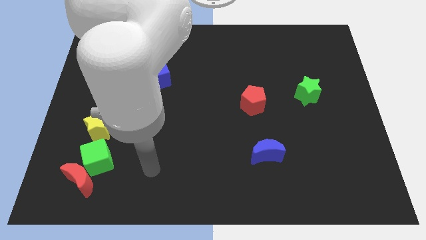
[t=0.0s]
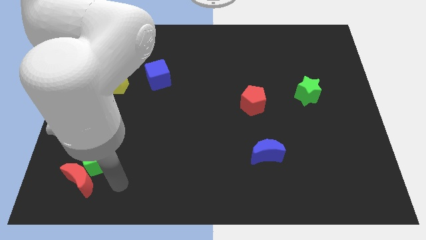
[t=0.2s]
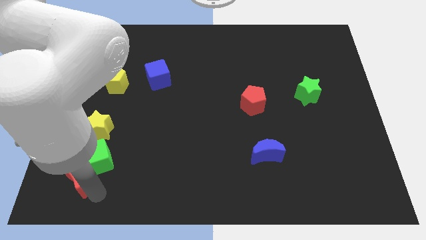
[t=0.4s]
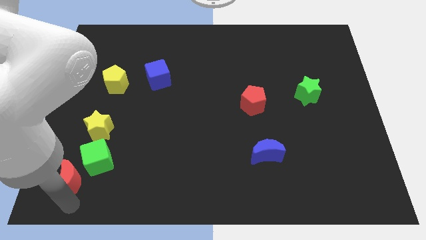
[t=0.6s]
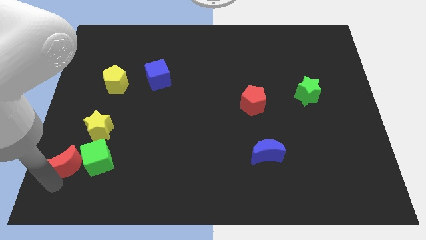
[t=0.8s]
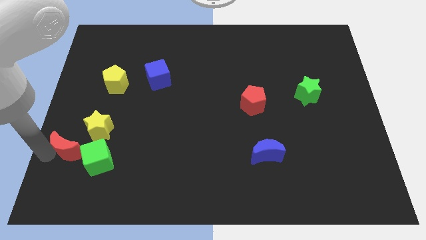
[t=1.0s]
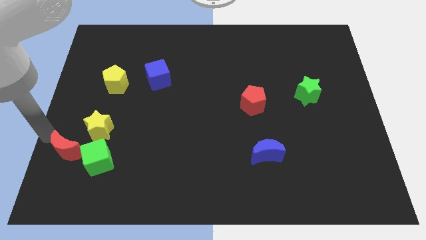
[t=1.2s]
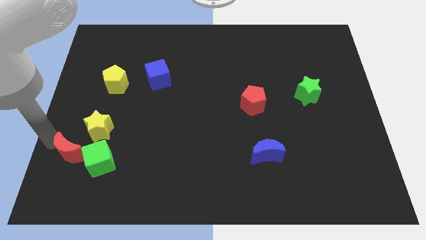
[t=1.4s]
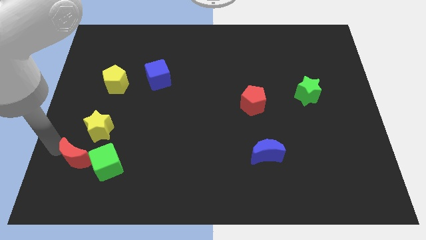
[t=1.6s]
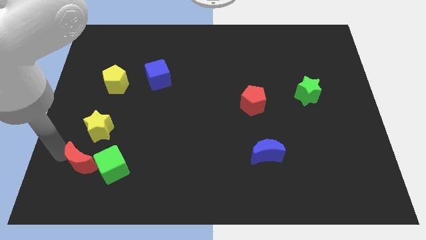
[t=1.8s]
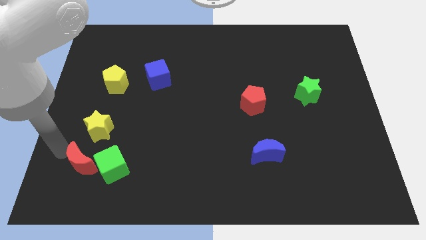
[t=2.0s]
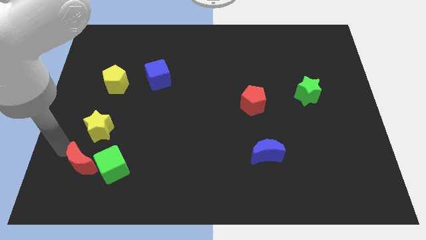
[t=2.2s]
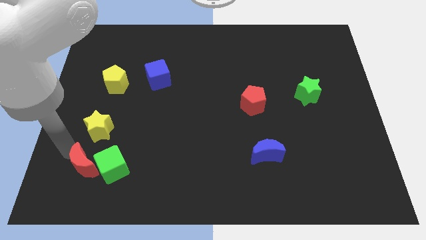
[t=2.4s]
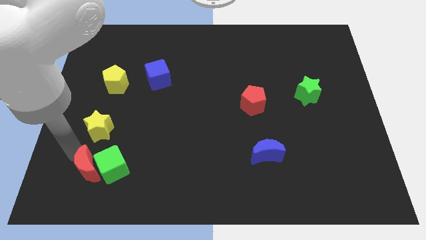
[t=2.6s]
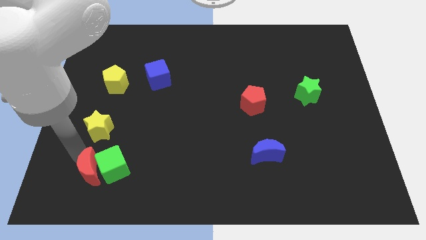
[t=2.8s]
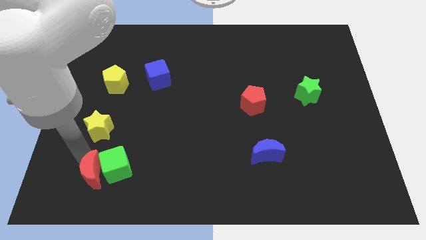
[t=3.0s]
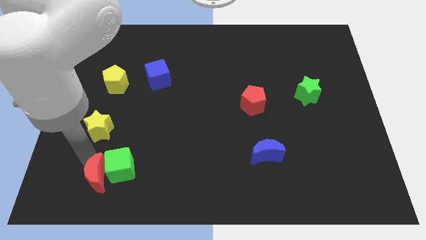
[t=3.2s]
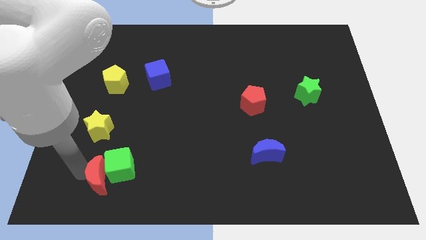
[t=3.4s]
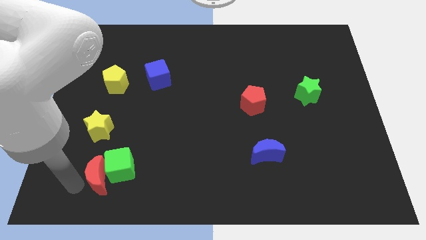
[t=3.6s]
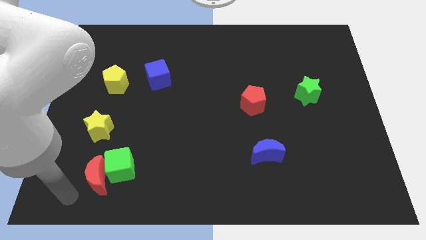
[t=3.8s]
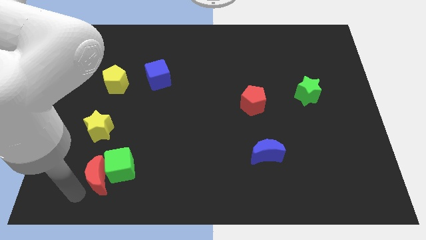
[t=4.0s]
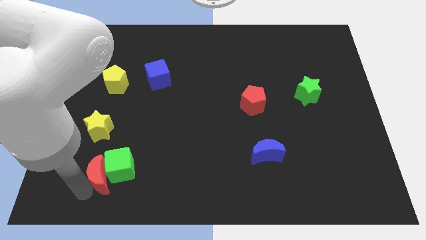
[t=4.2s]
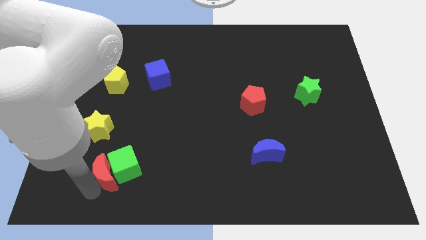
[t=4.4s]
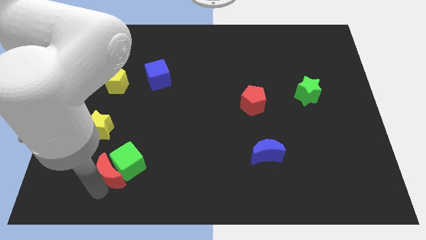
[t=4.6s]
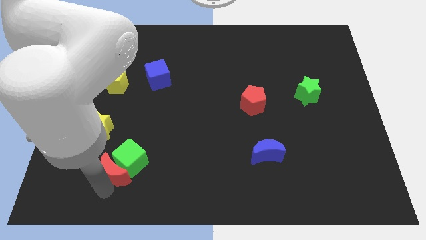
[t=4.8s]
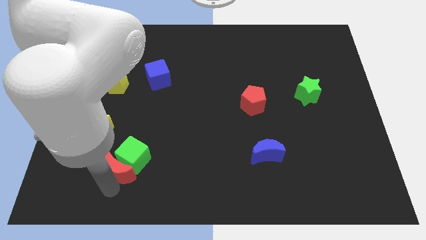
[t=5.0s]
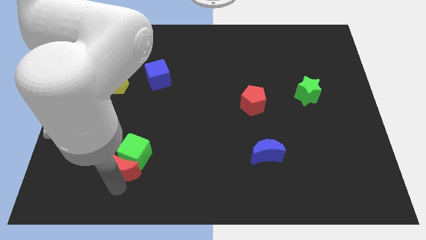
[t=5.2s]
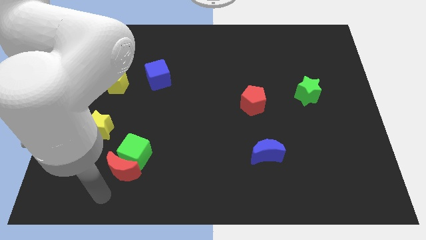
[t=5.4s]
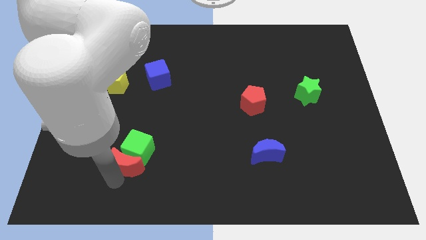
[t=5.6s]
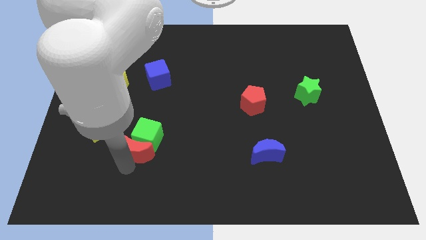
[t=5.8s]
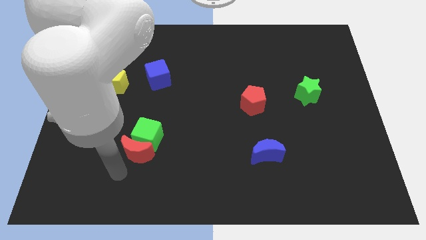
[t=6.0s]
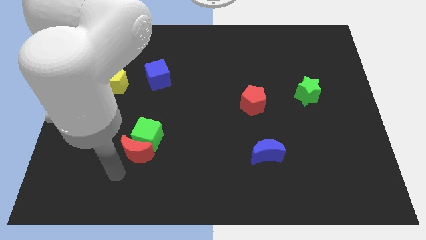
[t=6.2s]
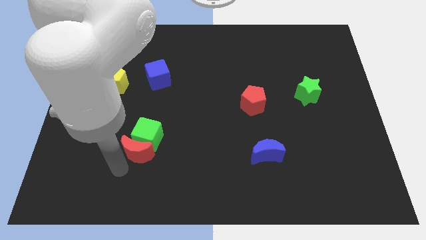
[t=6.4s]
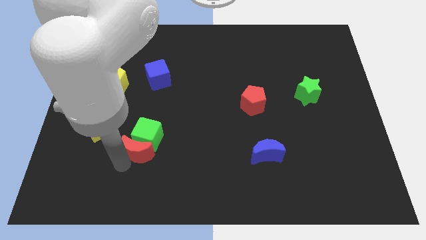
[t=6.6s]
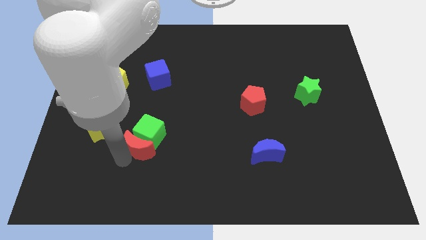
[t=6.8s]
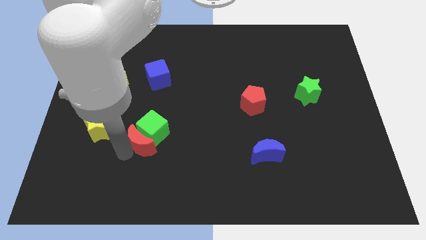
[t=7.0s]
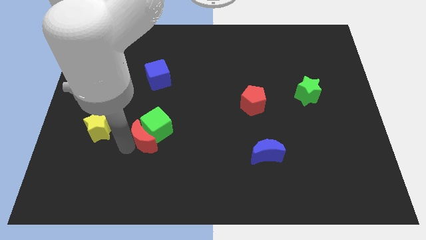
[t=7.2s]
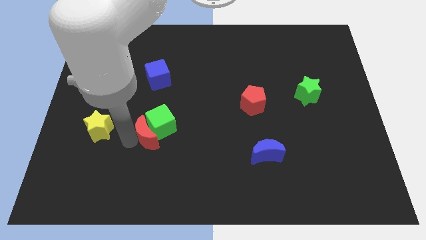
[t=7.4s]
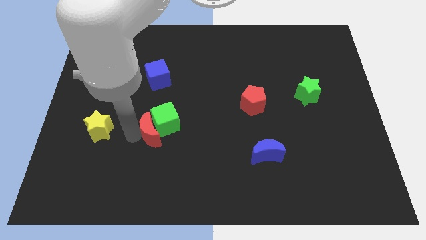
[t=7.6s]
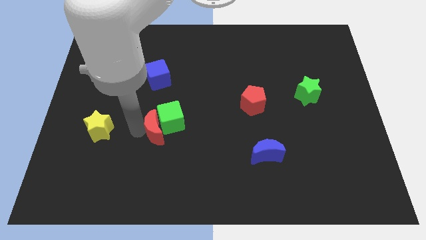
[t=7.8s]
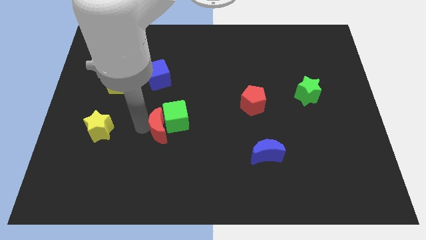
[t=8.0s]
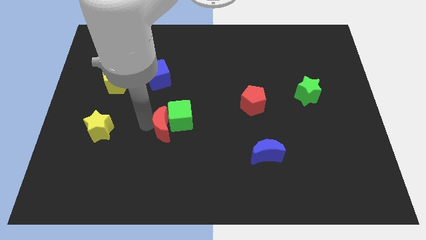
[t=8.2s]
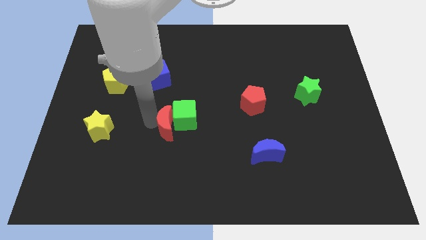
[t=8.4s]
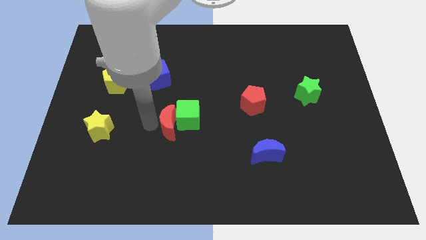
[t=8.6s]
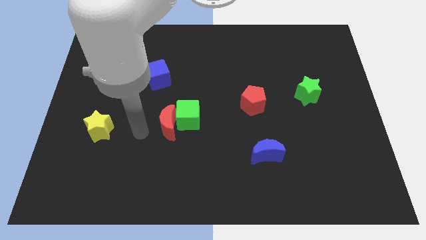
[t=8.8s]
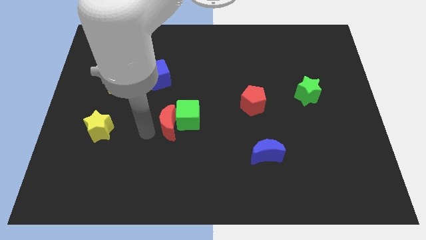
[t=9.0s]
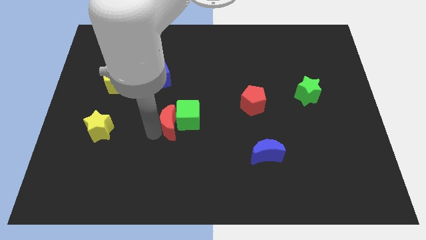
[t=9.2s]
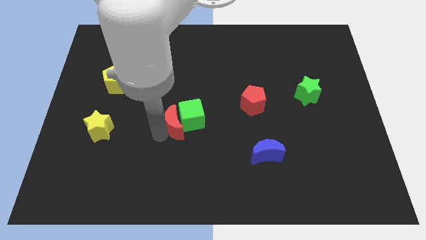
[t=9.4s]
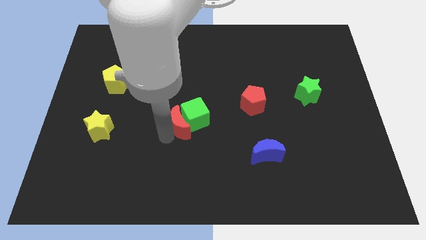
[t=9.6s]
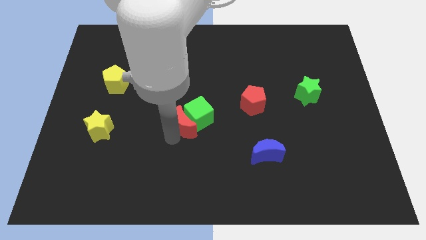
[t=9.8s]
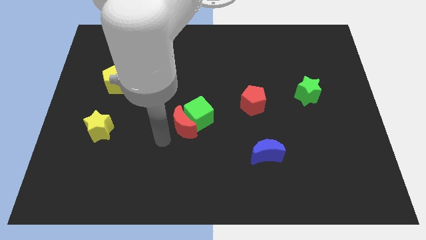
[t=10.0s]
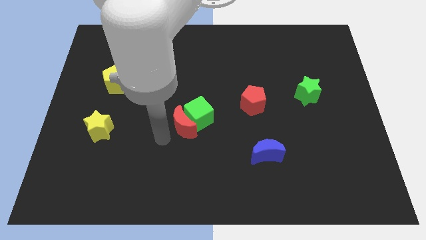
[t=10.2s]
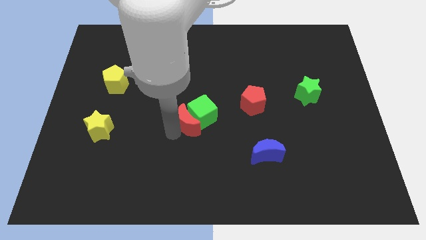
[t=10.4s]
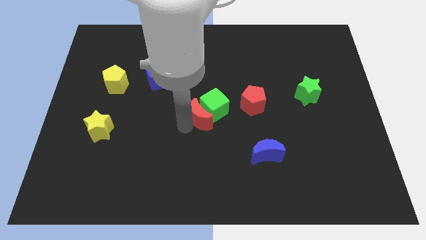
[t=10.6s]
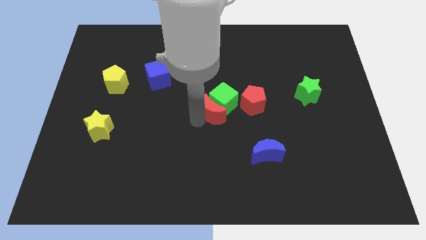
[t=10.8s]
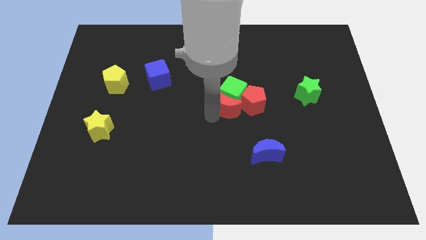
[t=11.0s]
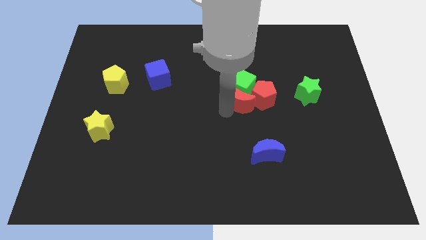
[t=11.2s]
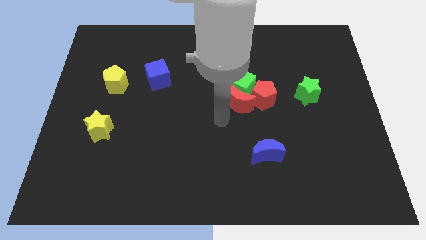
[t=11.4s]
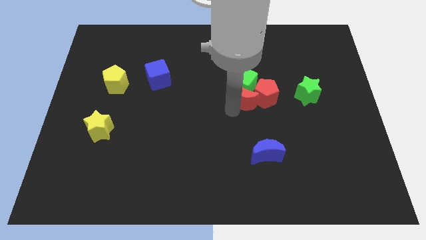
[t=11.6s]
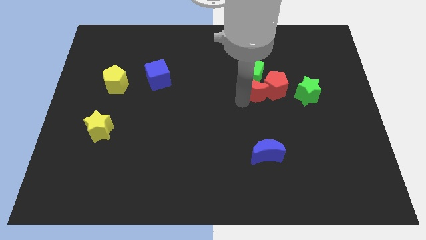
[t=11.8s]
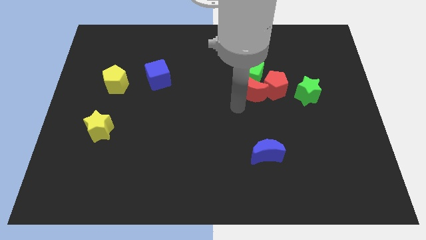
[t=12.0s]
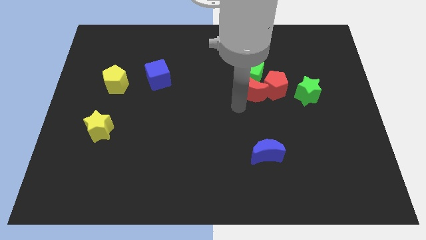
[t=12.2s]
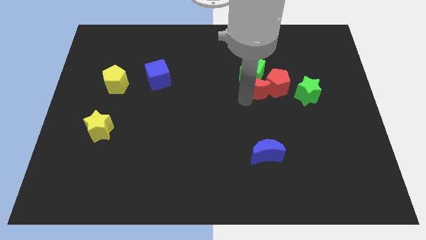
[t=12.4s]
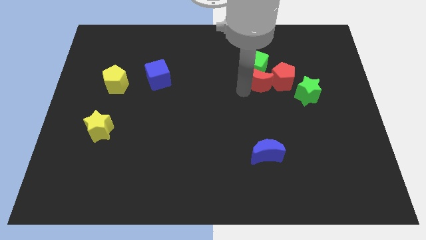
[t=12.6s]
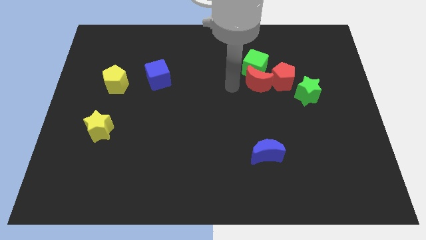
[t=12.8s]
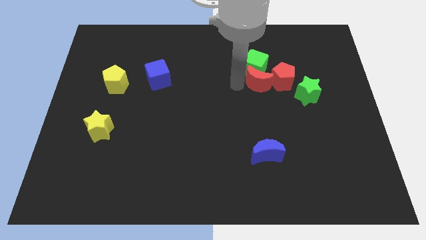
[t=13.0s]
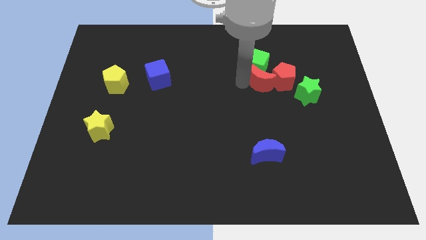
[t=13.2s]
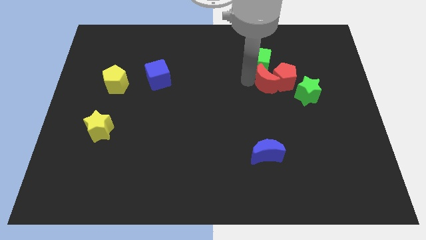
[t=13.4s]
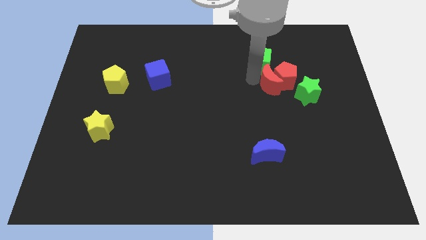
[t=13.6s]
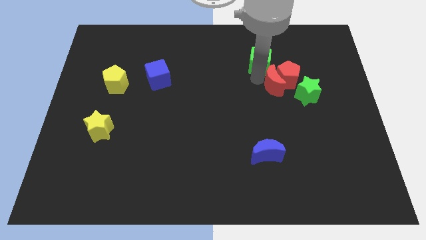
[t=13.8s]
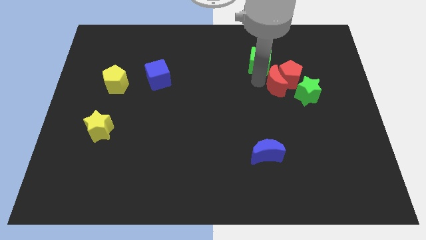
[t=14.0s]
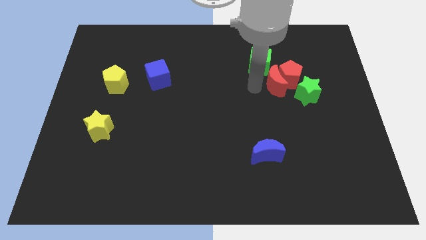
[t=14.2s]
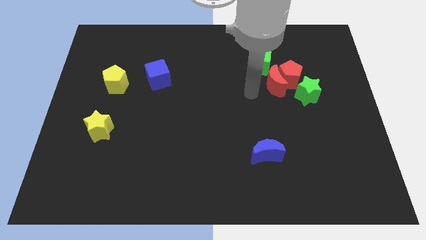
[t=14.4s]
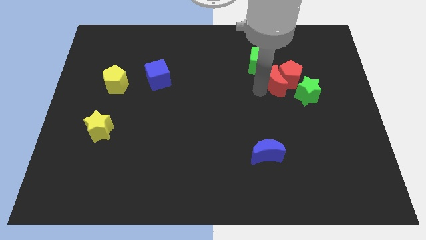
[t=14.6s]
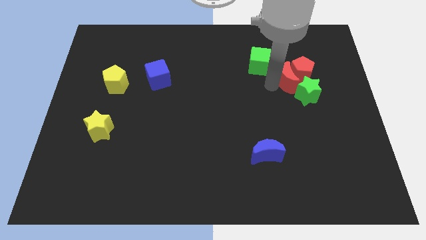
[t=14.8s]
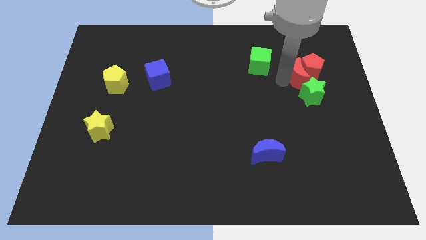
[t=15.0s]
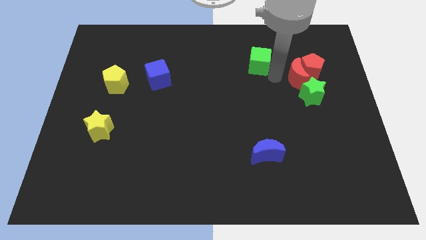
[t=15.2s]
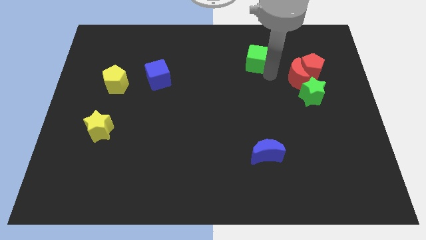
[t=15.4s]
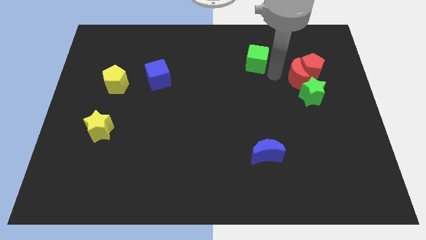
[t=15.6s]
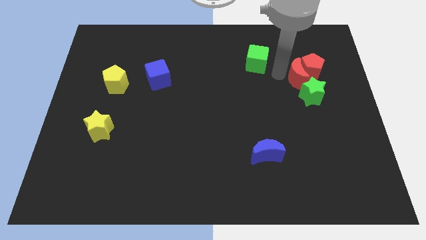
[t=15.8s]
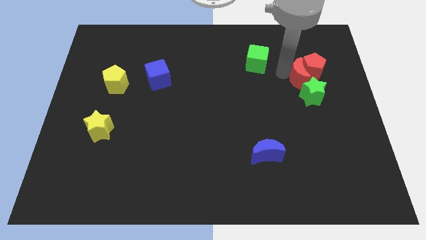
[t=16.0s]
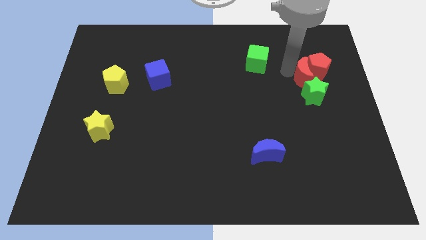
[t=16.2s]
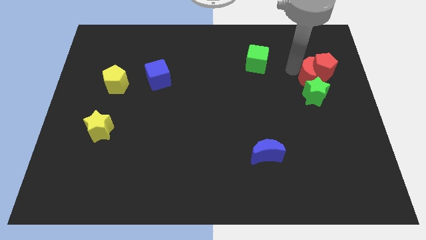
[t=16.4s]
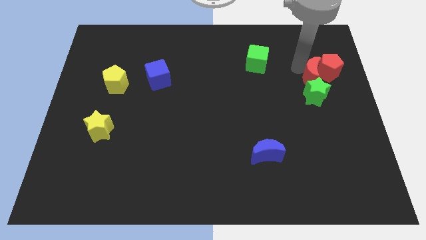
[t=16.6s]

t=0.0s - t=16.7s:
push the red moon to the top right side of the green star
